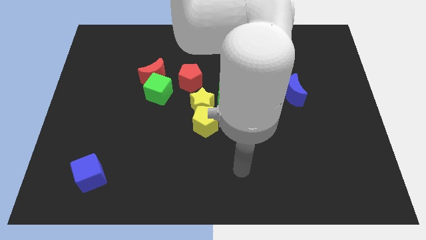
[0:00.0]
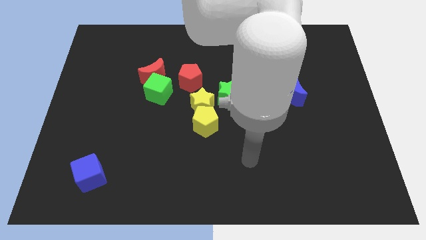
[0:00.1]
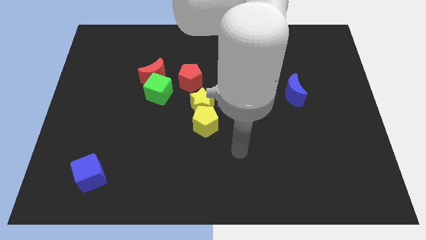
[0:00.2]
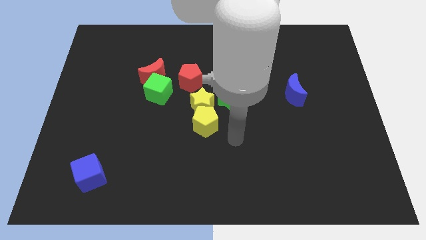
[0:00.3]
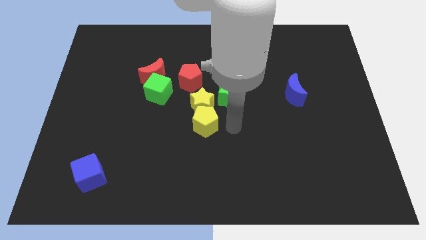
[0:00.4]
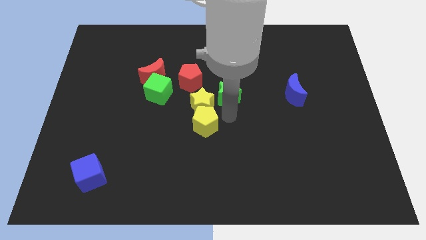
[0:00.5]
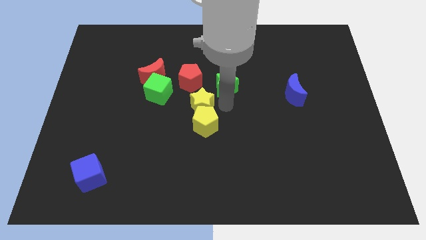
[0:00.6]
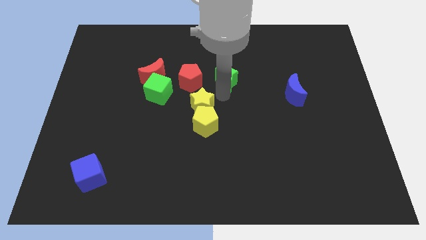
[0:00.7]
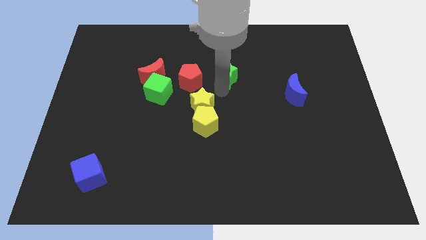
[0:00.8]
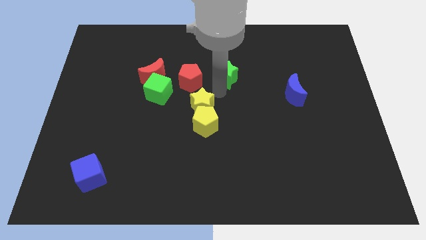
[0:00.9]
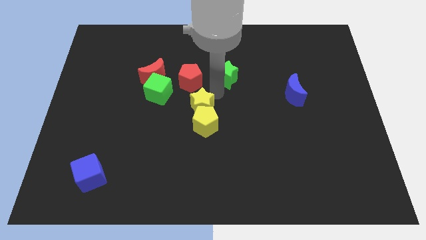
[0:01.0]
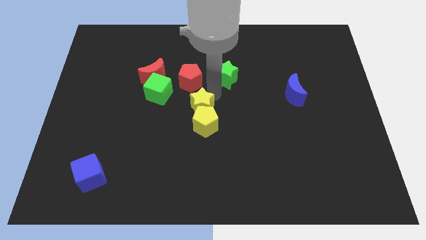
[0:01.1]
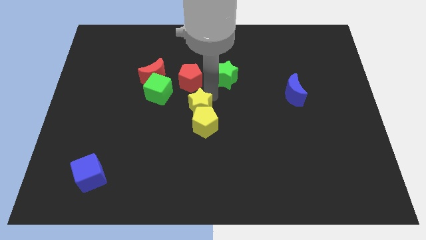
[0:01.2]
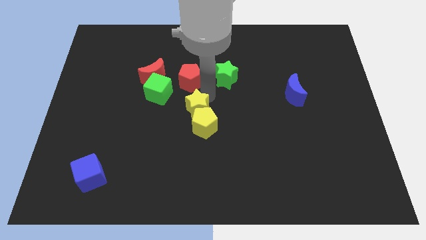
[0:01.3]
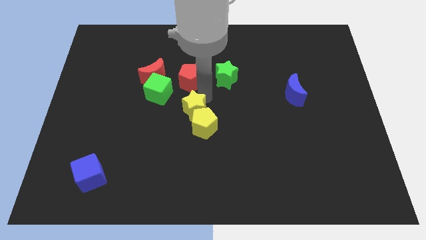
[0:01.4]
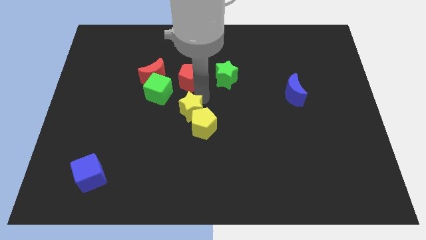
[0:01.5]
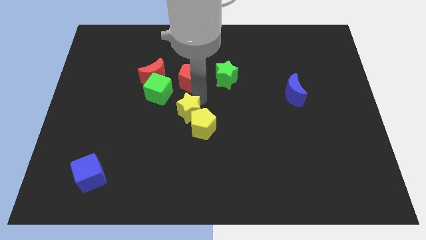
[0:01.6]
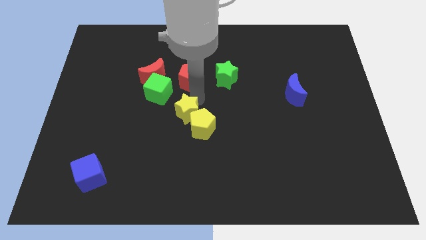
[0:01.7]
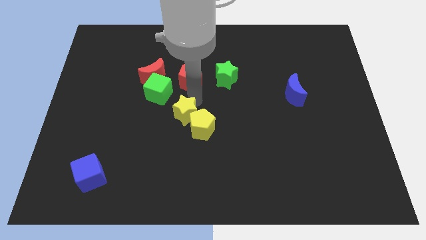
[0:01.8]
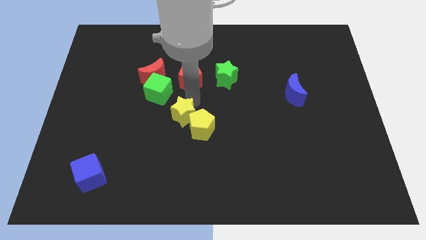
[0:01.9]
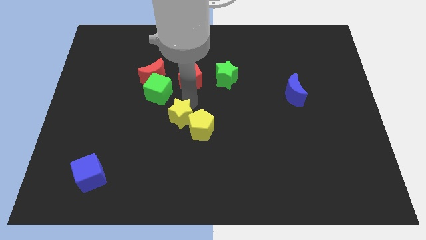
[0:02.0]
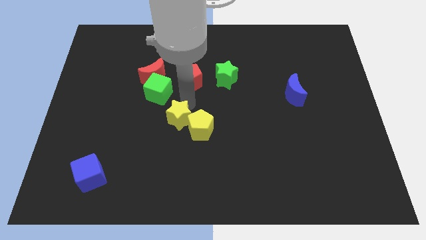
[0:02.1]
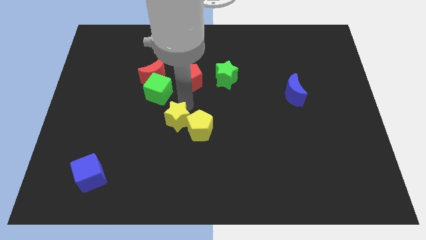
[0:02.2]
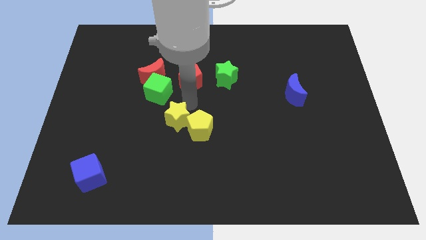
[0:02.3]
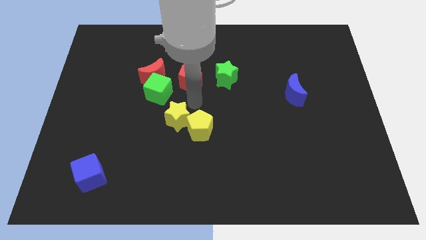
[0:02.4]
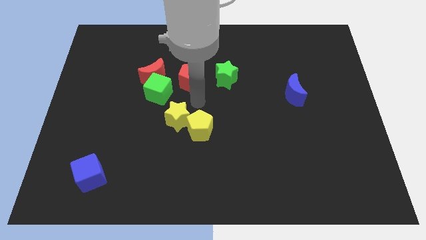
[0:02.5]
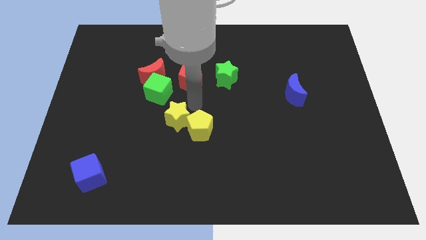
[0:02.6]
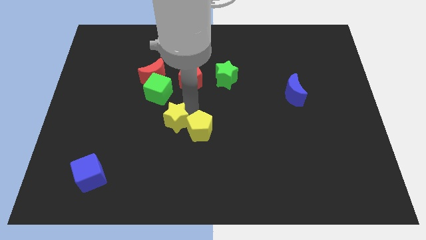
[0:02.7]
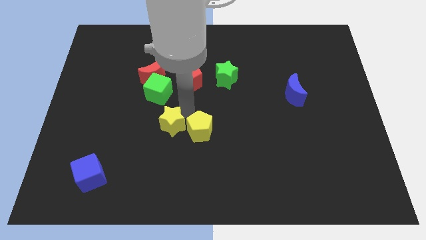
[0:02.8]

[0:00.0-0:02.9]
pull the yellow star apart from the yellow pentagon, green star, and red pentagon

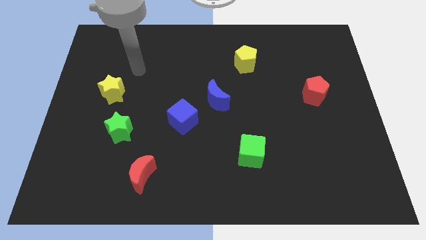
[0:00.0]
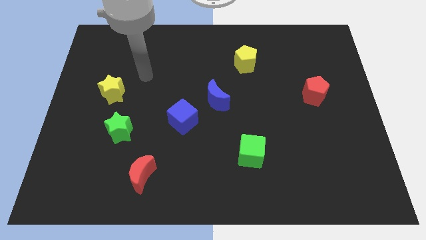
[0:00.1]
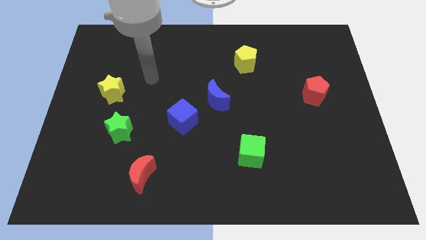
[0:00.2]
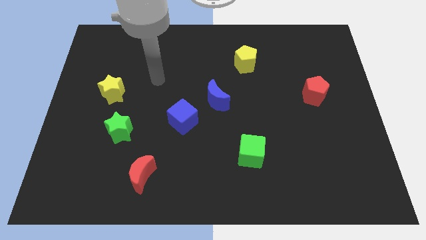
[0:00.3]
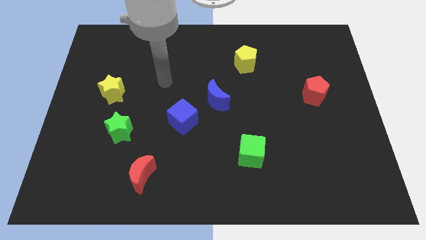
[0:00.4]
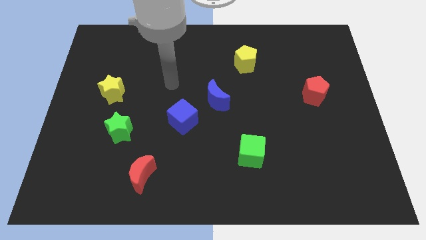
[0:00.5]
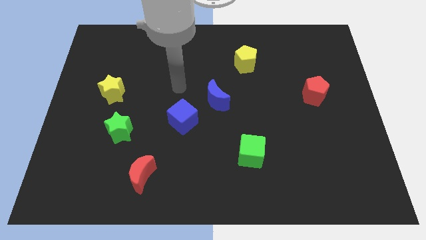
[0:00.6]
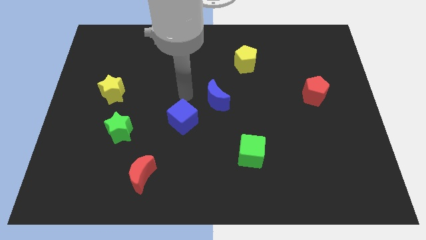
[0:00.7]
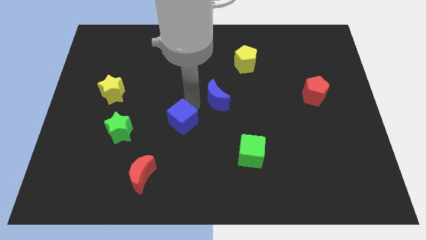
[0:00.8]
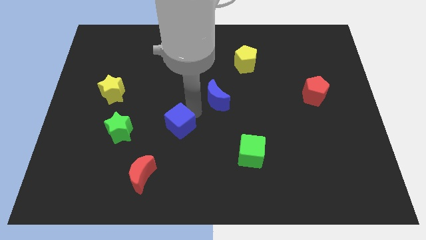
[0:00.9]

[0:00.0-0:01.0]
pull the blue moon apart from the blue cube

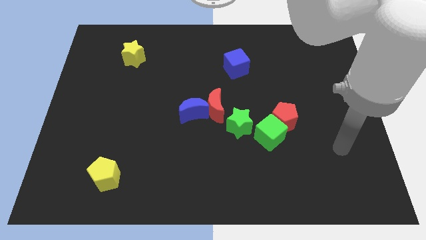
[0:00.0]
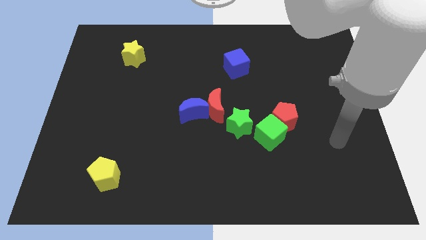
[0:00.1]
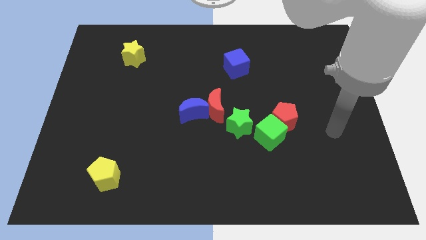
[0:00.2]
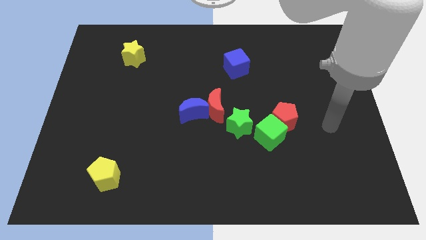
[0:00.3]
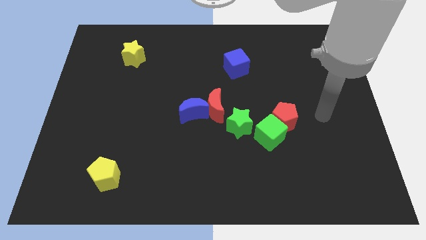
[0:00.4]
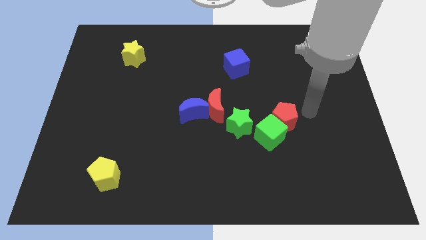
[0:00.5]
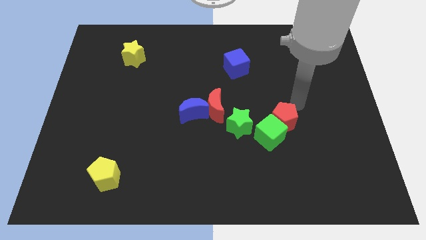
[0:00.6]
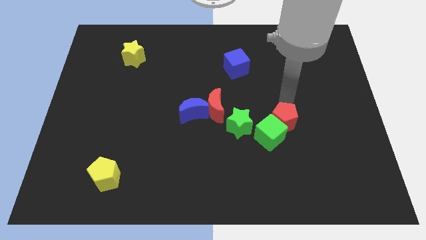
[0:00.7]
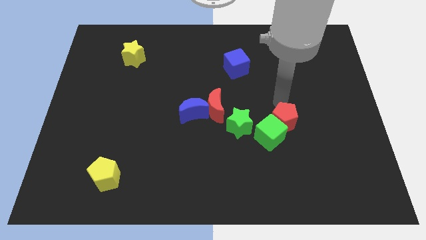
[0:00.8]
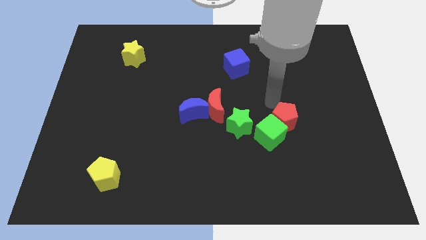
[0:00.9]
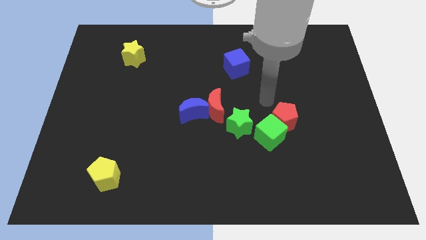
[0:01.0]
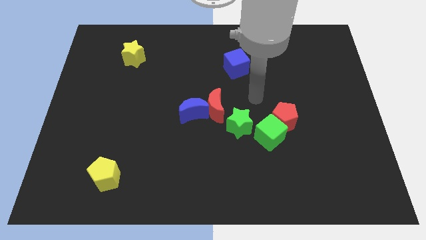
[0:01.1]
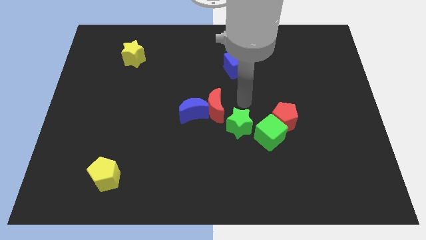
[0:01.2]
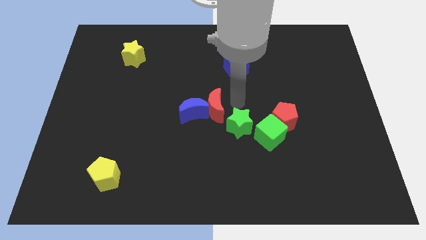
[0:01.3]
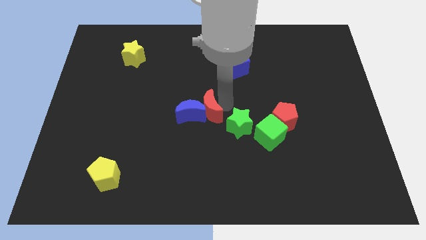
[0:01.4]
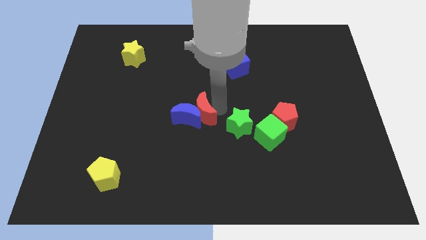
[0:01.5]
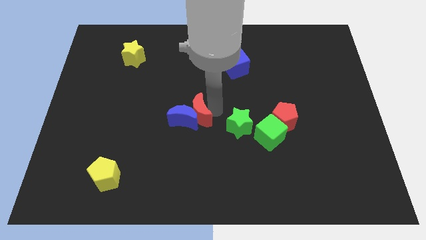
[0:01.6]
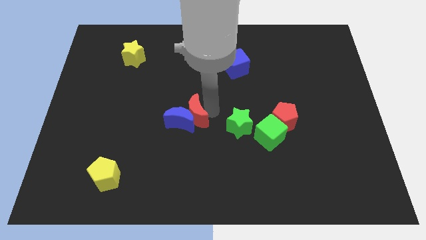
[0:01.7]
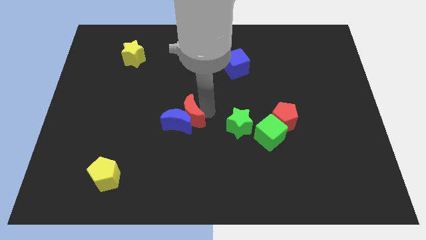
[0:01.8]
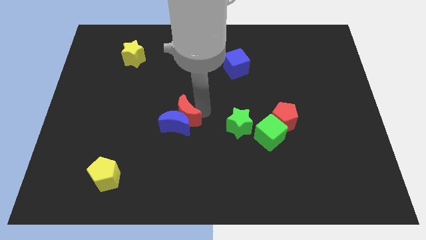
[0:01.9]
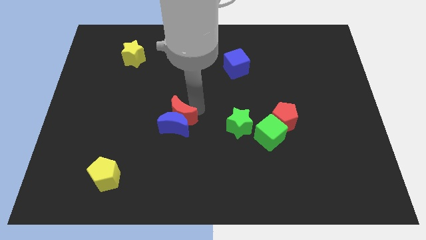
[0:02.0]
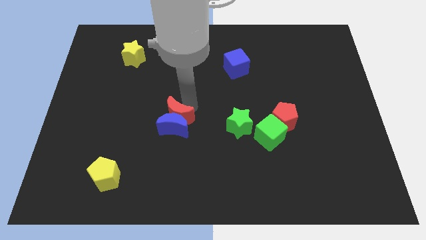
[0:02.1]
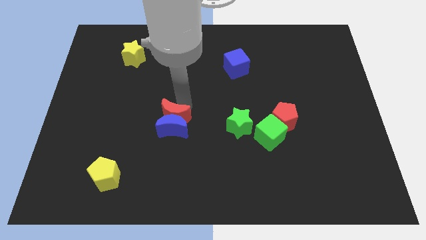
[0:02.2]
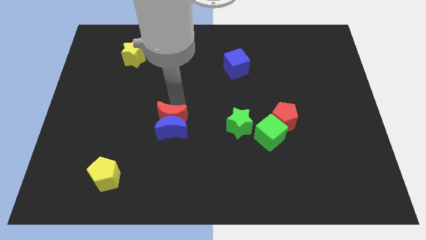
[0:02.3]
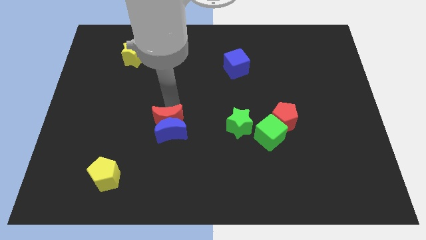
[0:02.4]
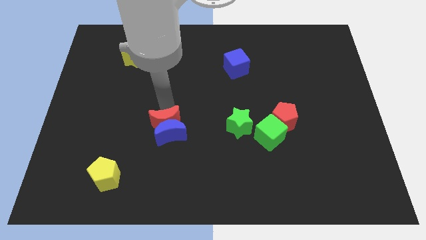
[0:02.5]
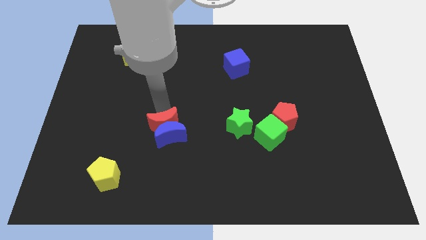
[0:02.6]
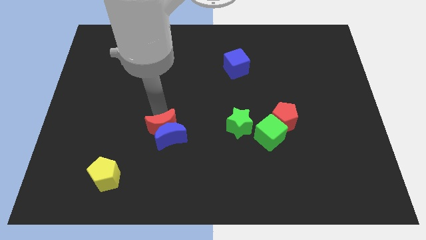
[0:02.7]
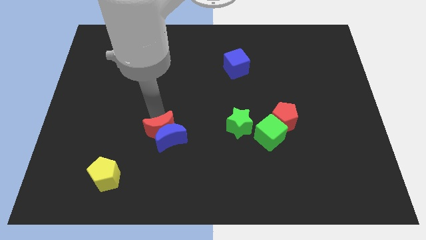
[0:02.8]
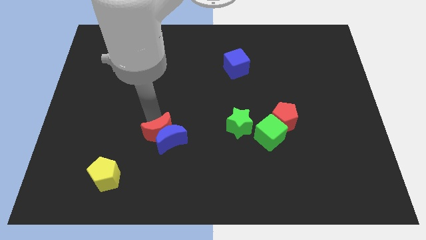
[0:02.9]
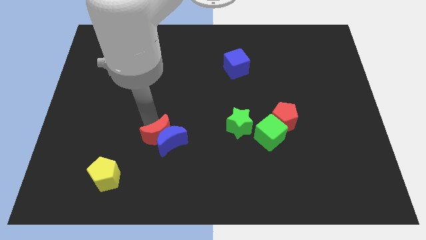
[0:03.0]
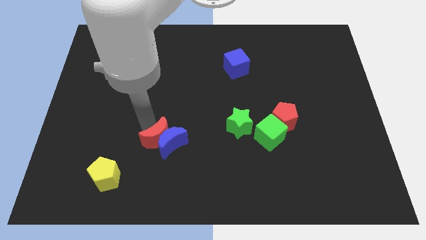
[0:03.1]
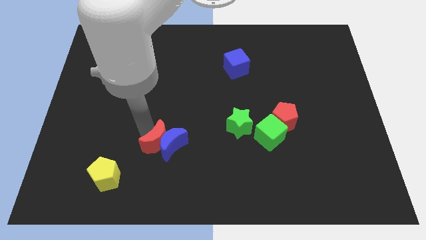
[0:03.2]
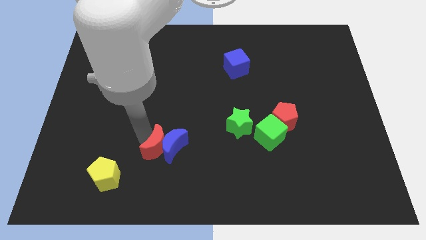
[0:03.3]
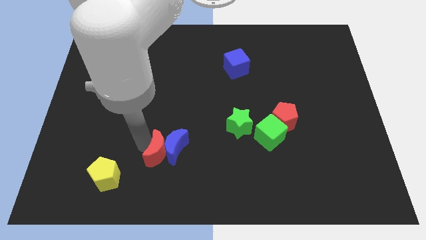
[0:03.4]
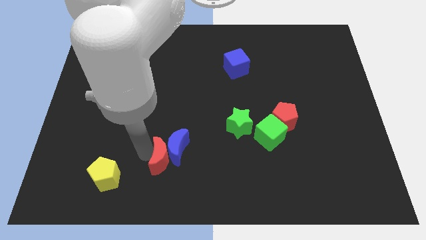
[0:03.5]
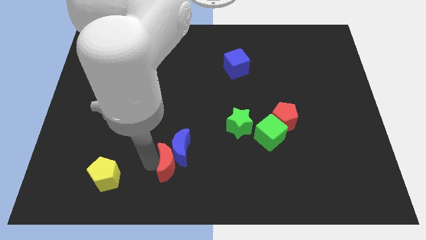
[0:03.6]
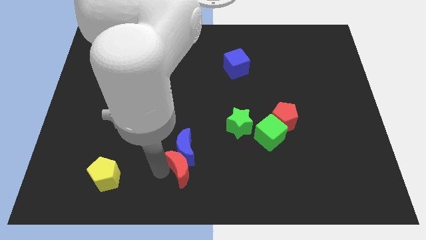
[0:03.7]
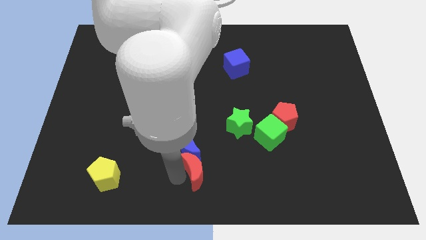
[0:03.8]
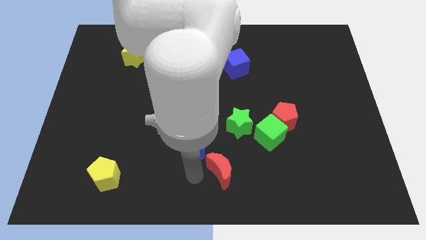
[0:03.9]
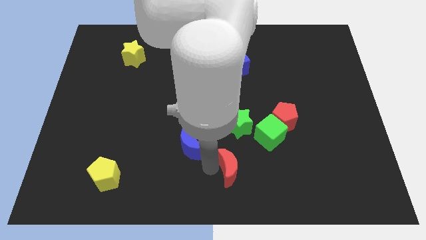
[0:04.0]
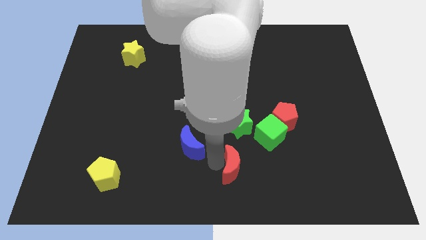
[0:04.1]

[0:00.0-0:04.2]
move the blue moon away from the red moon

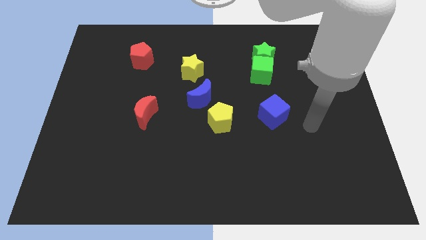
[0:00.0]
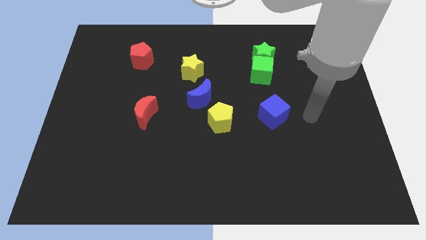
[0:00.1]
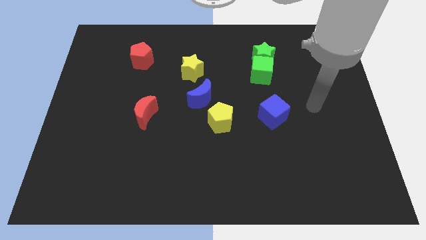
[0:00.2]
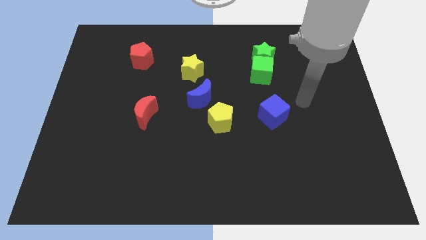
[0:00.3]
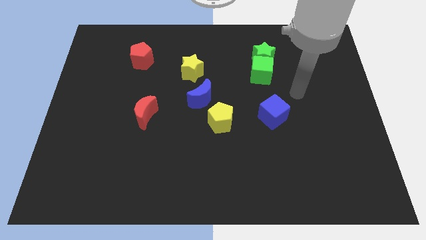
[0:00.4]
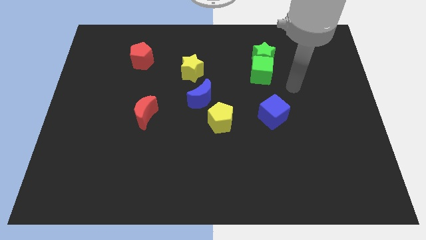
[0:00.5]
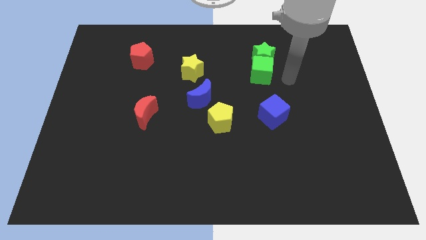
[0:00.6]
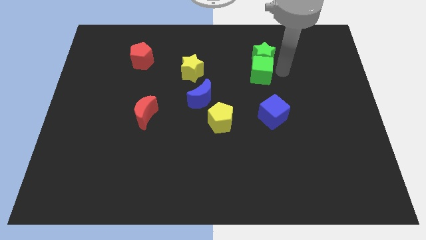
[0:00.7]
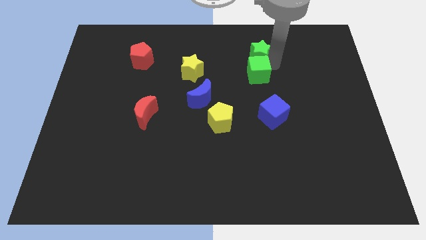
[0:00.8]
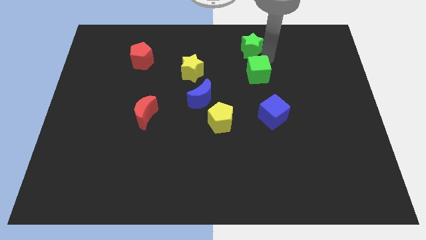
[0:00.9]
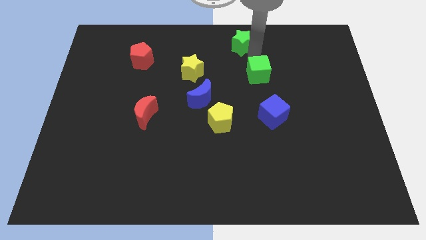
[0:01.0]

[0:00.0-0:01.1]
move the green cube away from the green star
